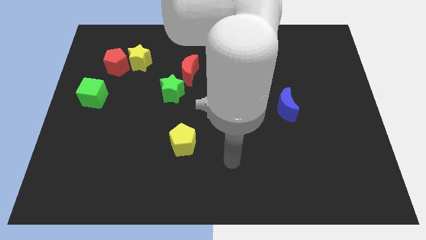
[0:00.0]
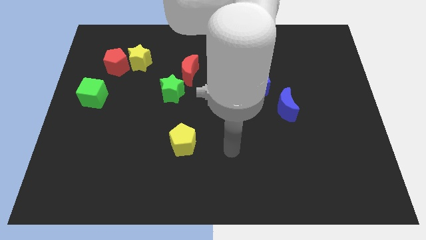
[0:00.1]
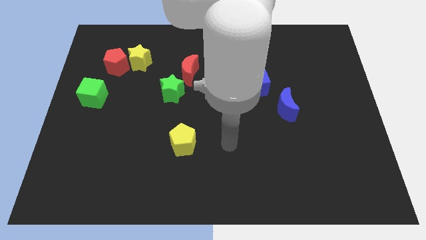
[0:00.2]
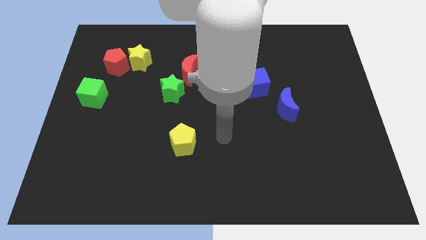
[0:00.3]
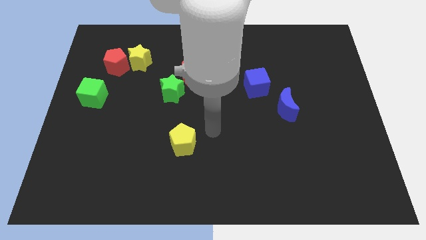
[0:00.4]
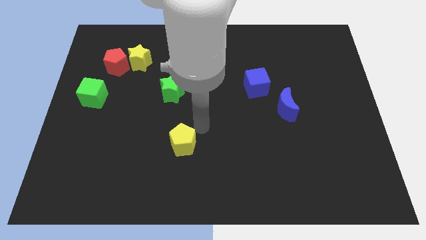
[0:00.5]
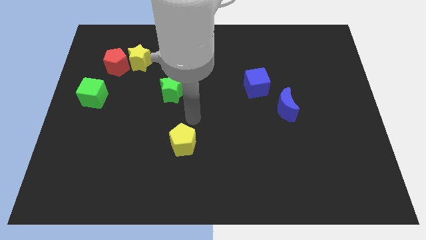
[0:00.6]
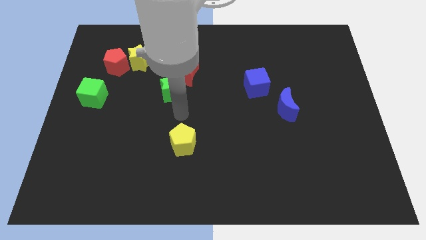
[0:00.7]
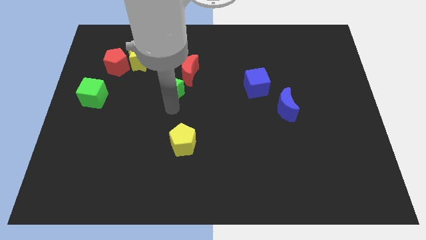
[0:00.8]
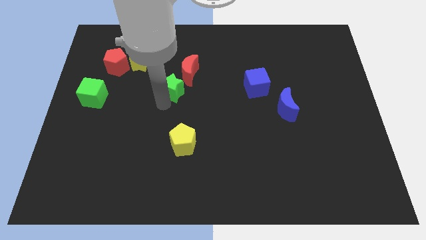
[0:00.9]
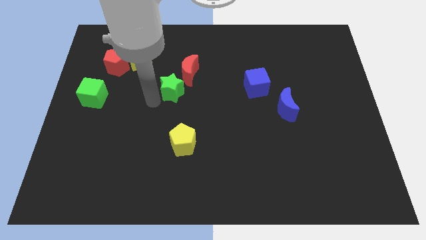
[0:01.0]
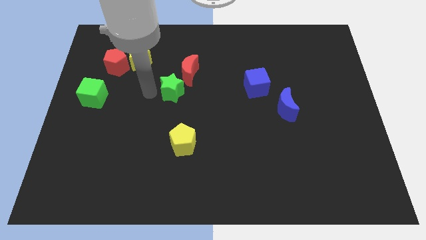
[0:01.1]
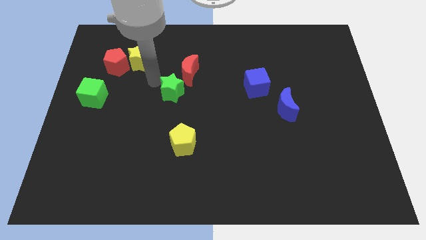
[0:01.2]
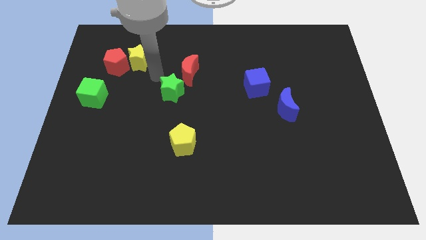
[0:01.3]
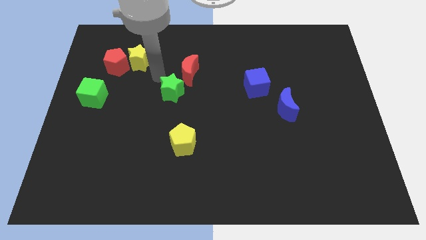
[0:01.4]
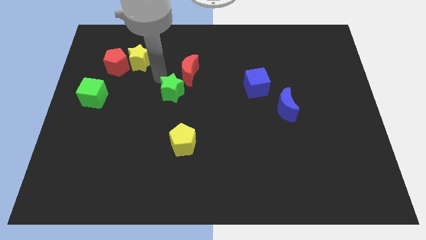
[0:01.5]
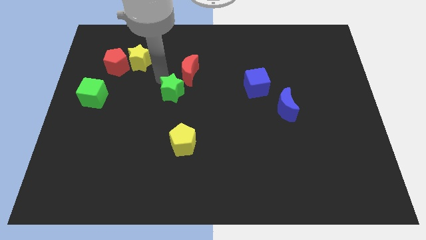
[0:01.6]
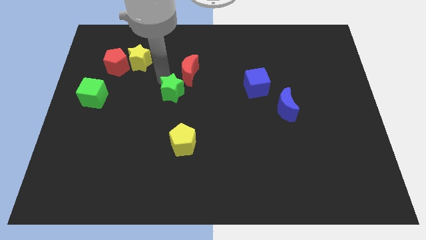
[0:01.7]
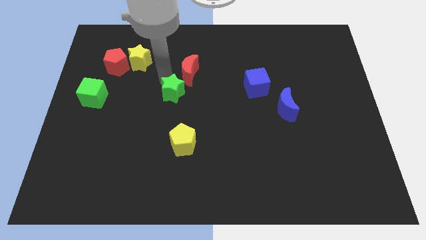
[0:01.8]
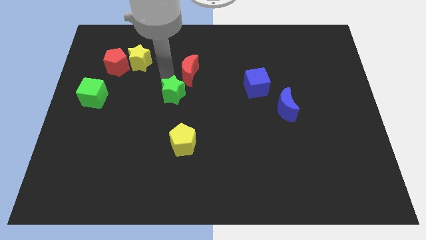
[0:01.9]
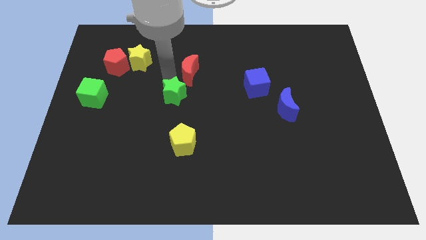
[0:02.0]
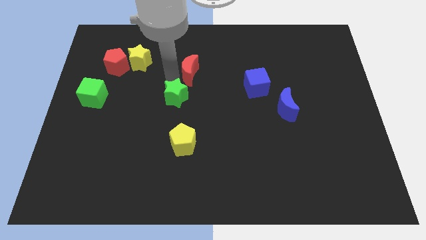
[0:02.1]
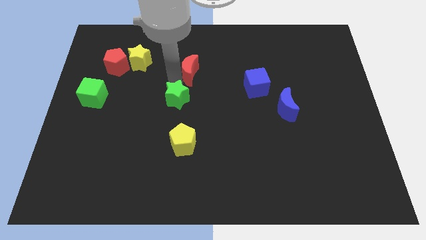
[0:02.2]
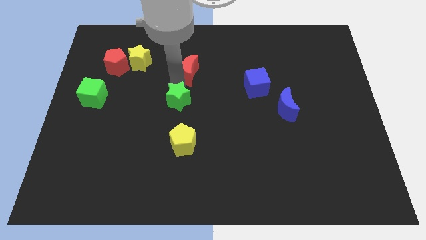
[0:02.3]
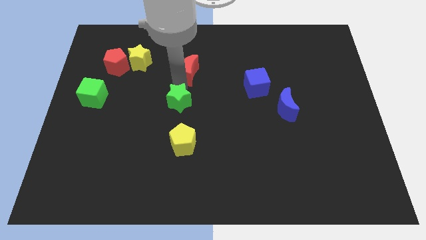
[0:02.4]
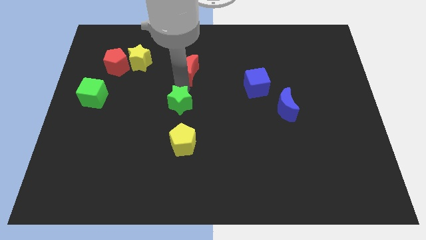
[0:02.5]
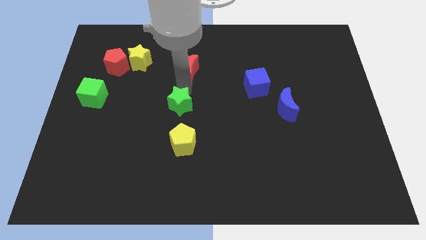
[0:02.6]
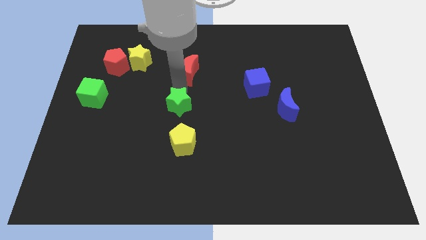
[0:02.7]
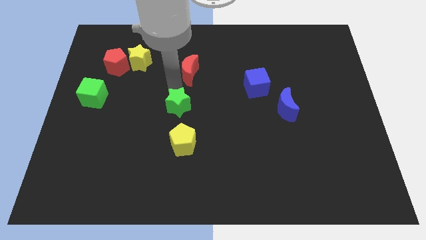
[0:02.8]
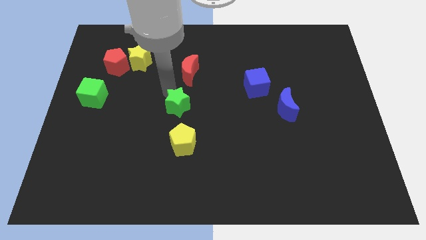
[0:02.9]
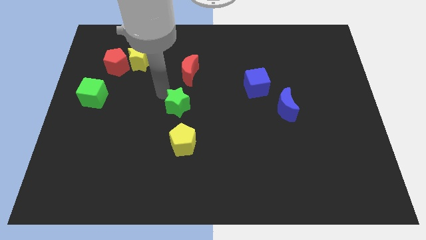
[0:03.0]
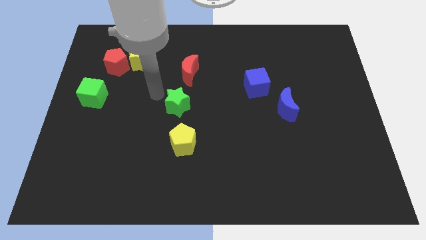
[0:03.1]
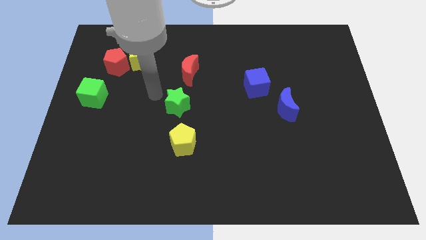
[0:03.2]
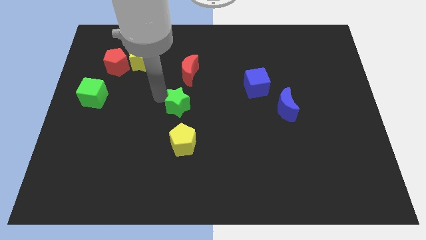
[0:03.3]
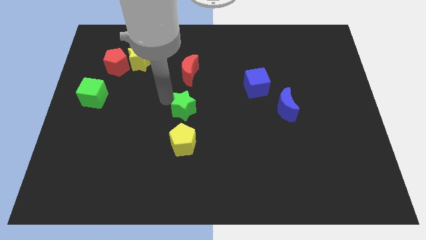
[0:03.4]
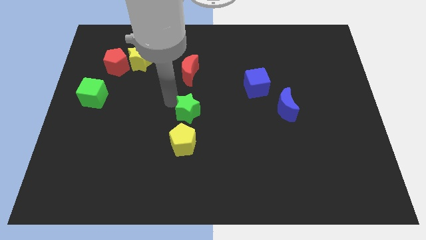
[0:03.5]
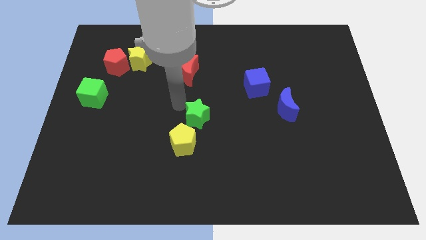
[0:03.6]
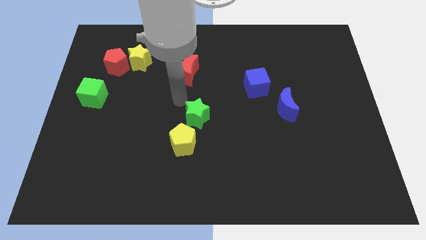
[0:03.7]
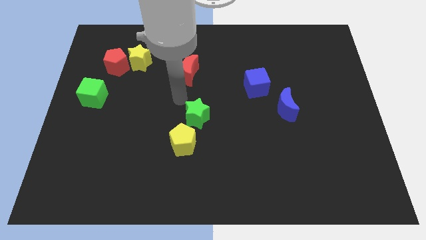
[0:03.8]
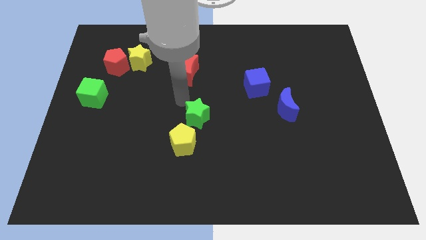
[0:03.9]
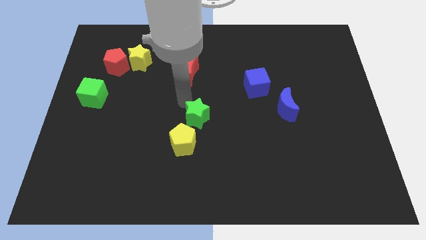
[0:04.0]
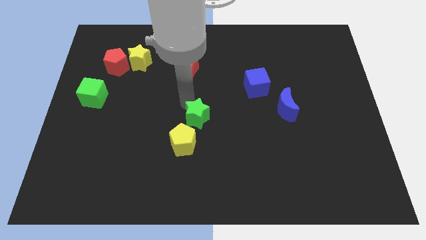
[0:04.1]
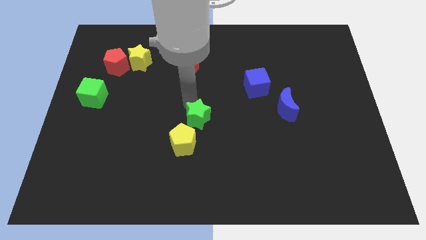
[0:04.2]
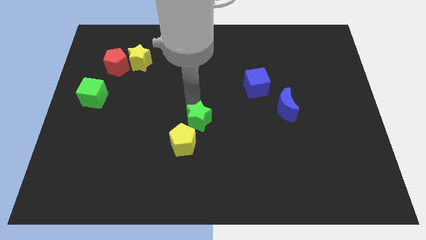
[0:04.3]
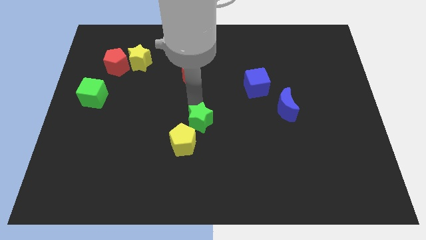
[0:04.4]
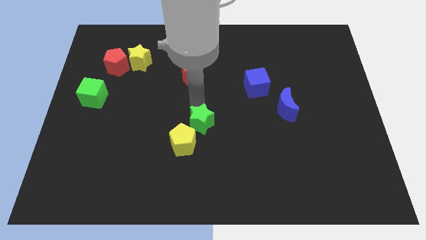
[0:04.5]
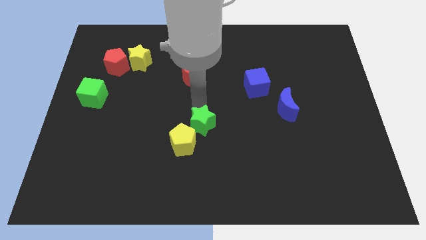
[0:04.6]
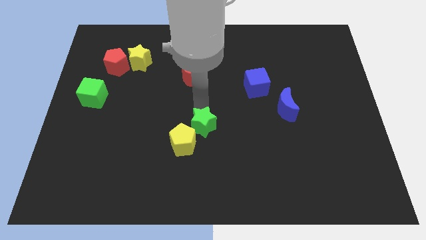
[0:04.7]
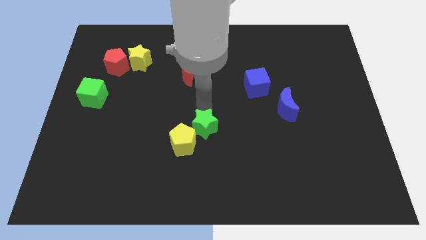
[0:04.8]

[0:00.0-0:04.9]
slide the green star just right of the yellow pentagon

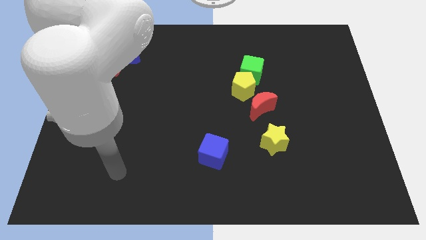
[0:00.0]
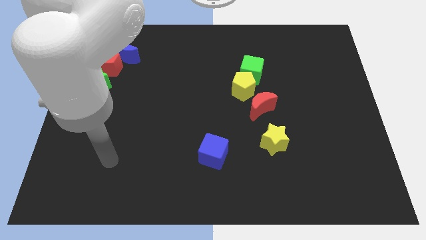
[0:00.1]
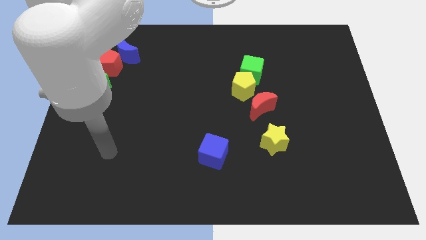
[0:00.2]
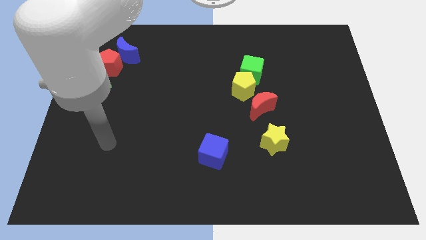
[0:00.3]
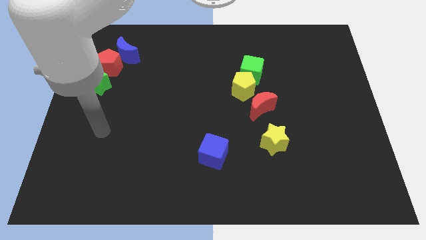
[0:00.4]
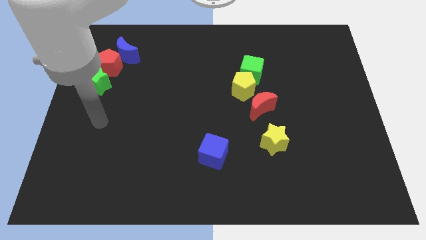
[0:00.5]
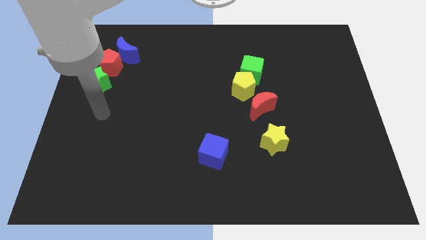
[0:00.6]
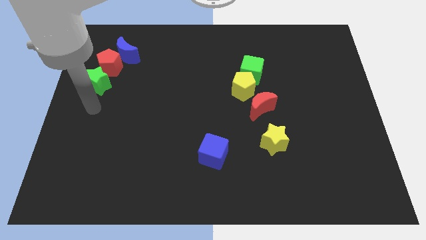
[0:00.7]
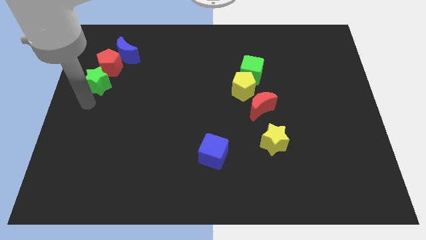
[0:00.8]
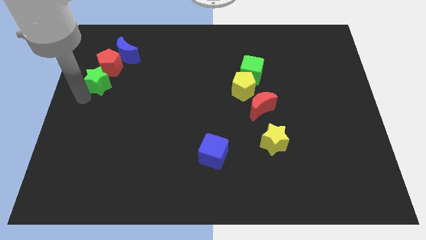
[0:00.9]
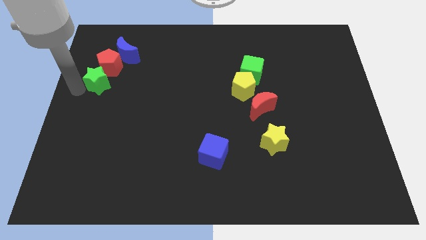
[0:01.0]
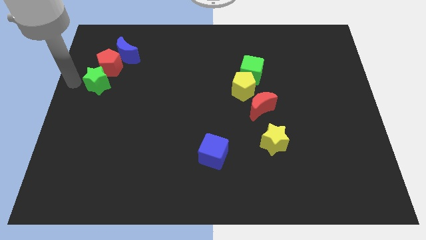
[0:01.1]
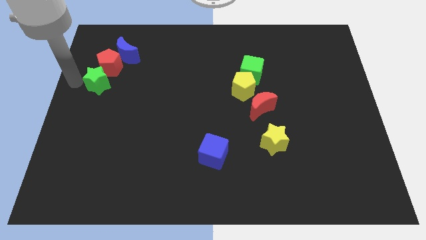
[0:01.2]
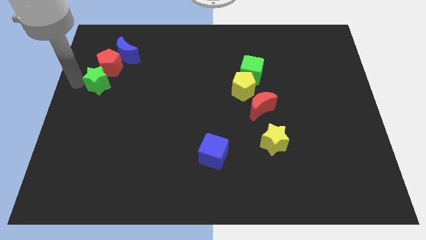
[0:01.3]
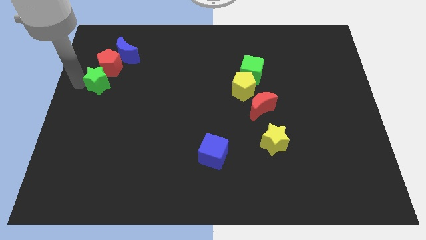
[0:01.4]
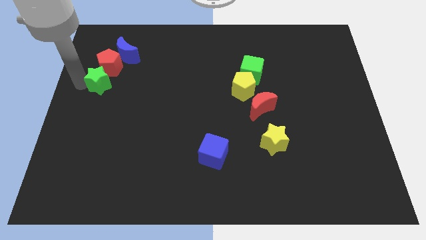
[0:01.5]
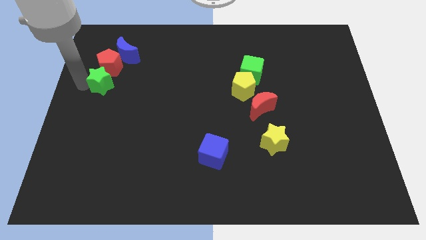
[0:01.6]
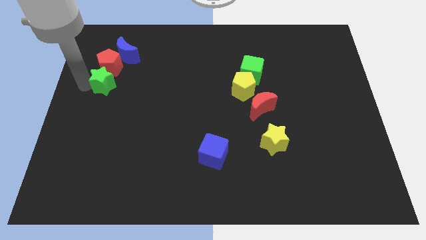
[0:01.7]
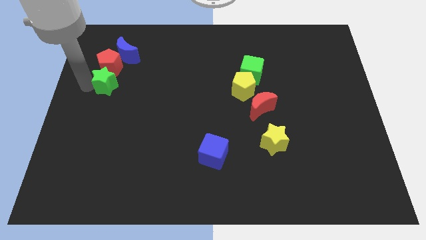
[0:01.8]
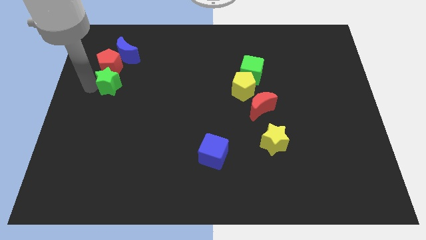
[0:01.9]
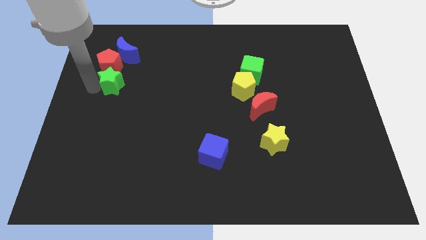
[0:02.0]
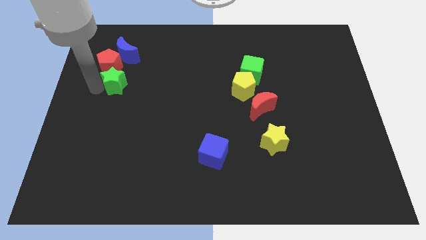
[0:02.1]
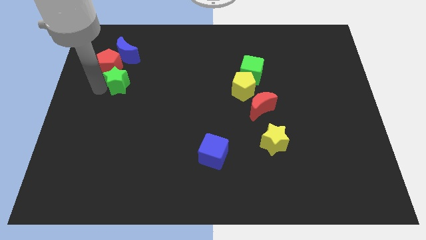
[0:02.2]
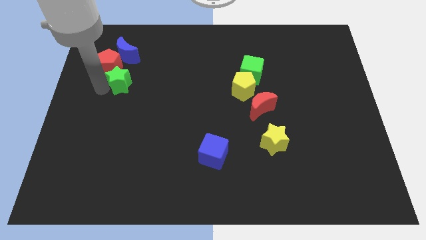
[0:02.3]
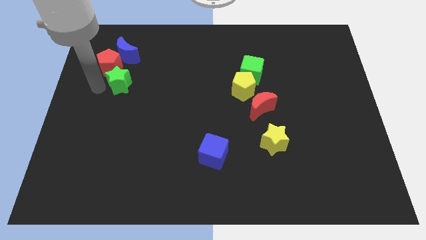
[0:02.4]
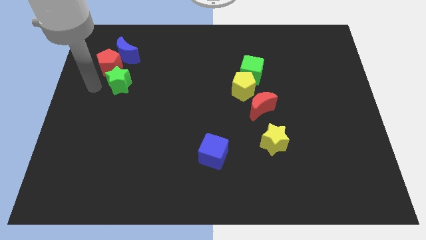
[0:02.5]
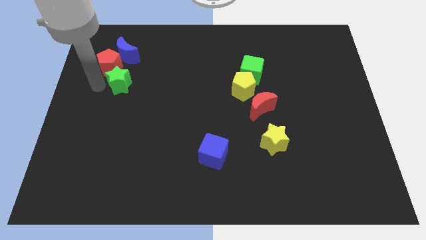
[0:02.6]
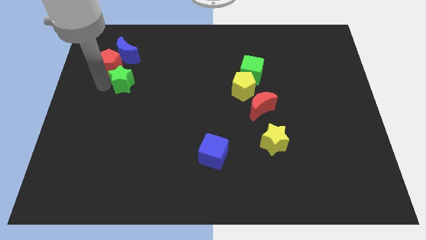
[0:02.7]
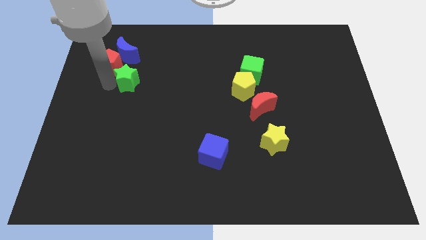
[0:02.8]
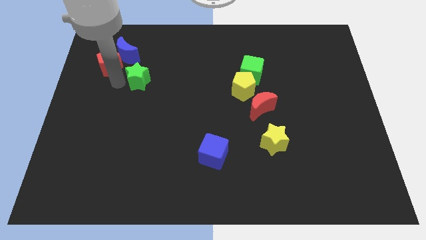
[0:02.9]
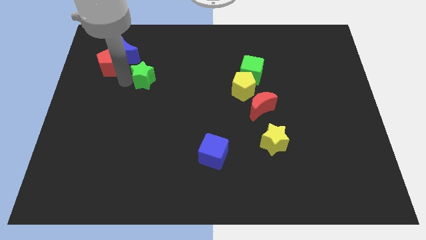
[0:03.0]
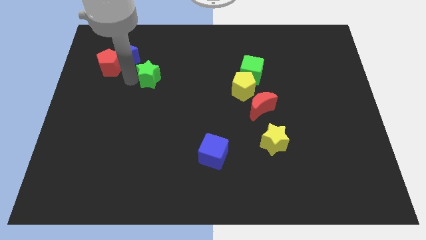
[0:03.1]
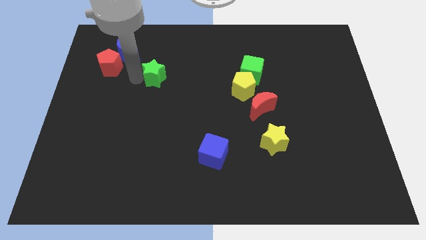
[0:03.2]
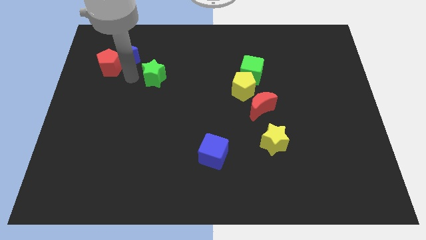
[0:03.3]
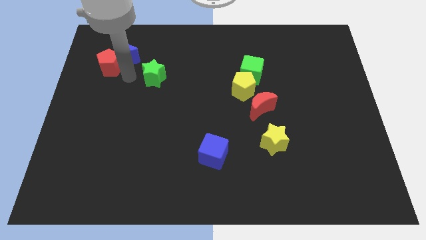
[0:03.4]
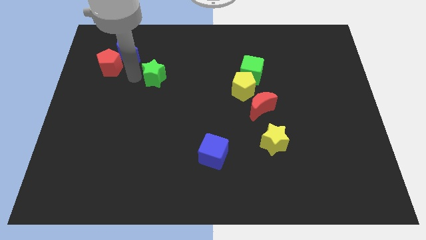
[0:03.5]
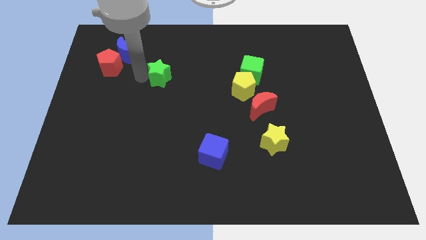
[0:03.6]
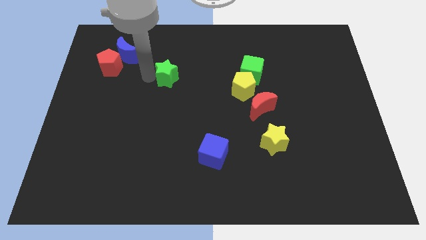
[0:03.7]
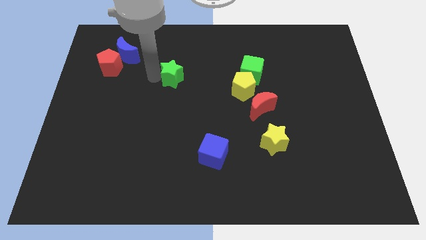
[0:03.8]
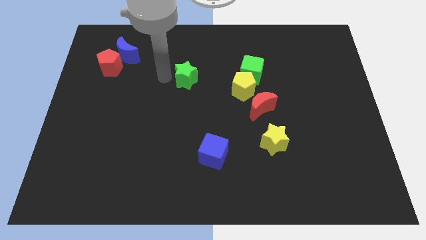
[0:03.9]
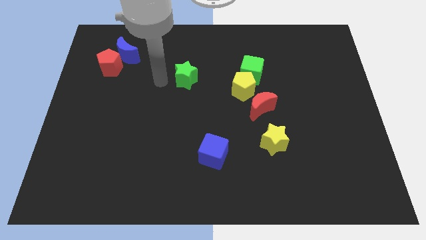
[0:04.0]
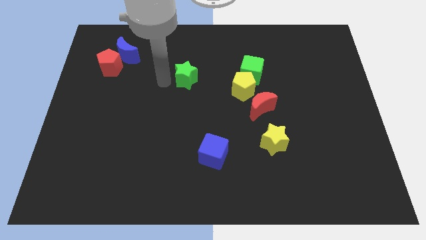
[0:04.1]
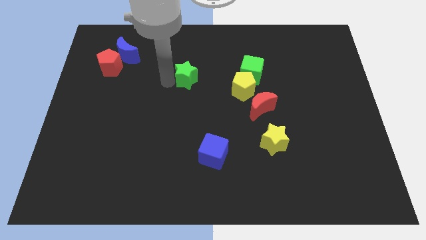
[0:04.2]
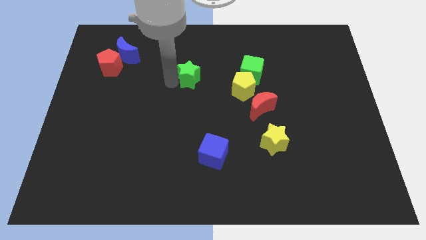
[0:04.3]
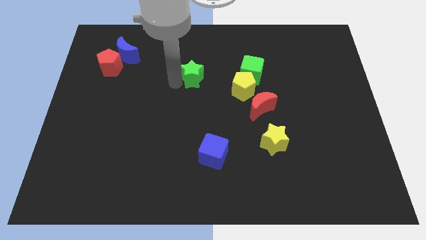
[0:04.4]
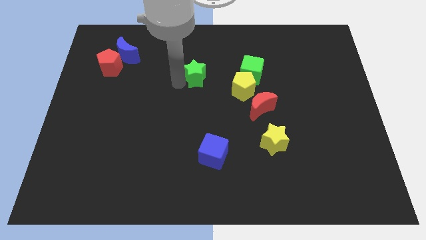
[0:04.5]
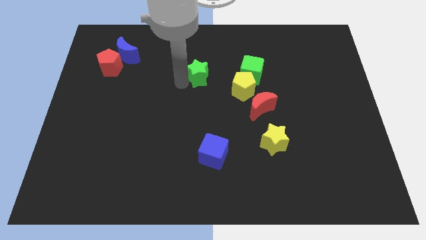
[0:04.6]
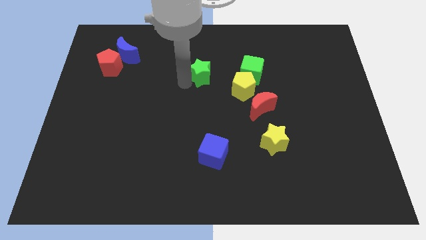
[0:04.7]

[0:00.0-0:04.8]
push the green star to the top left side of the yellow pentagon
